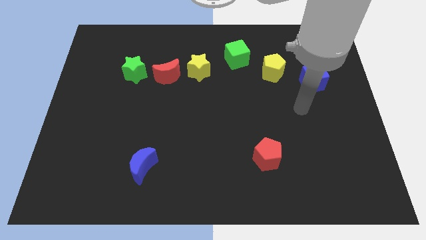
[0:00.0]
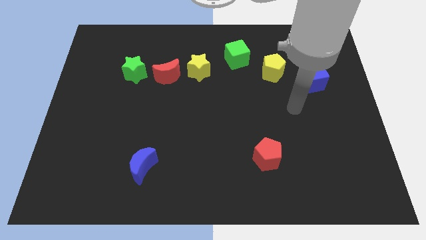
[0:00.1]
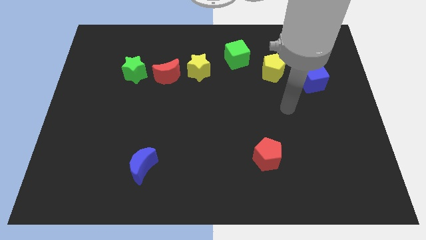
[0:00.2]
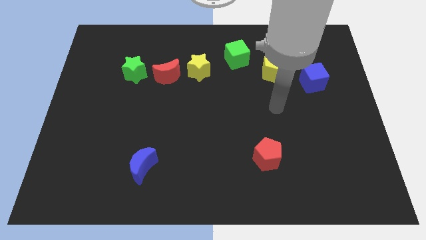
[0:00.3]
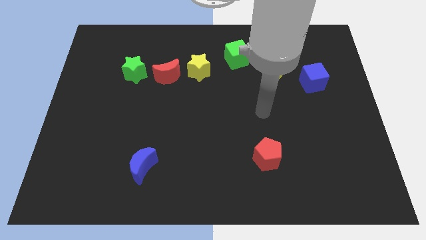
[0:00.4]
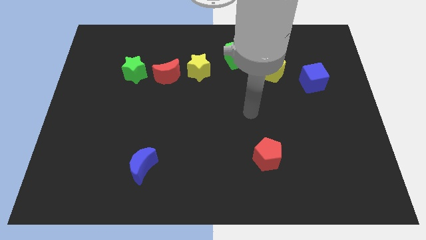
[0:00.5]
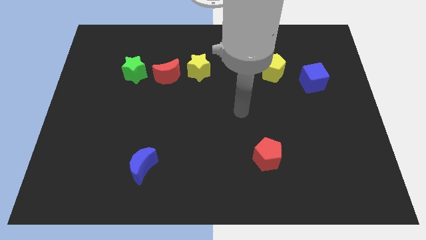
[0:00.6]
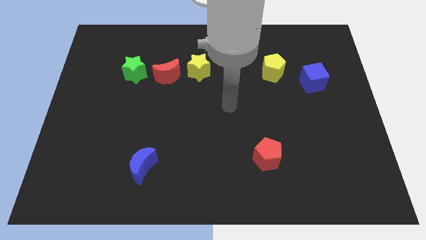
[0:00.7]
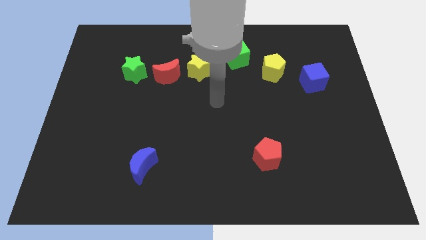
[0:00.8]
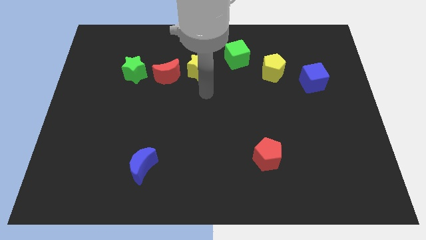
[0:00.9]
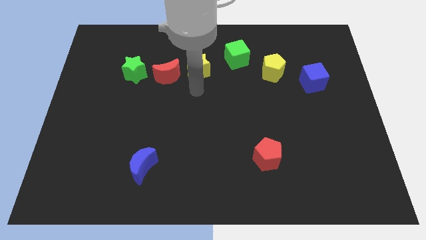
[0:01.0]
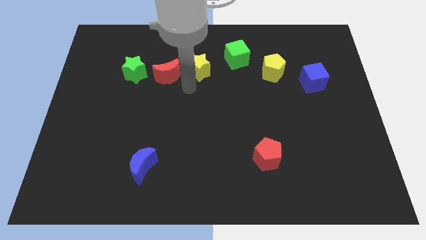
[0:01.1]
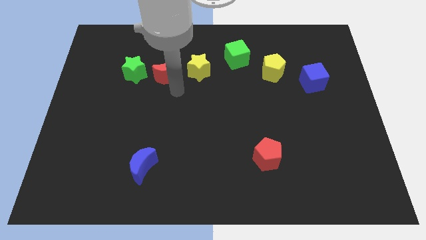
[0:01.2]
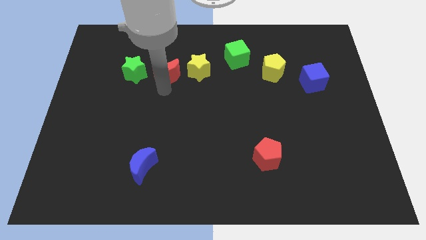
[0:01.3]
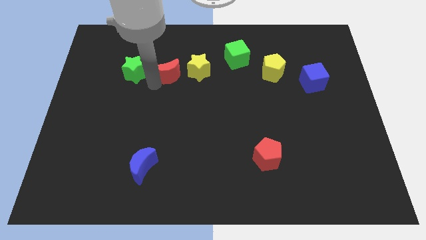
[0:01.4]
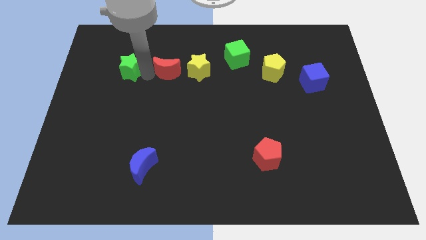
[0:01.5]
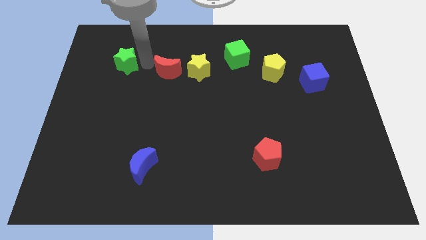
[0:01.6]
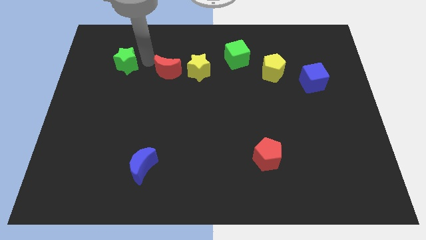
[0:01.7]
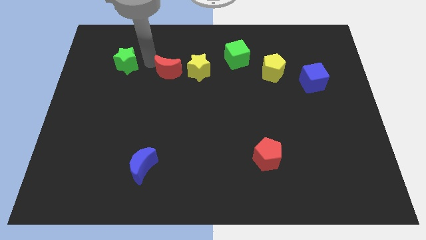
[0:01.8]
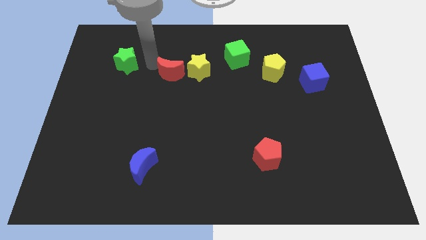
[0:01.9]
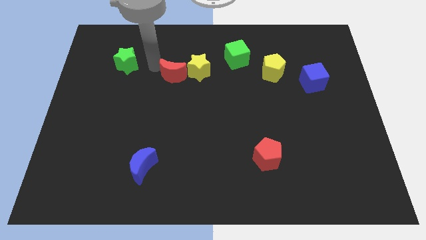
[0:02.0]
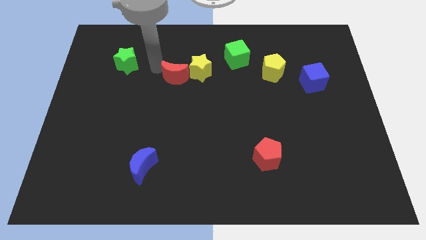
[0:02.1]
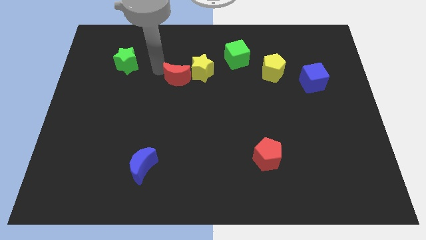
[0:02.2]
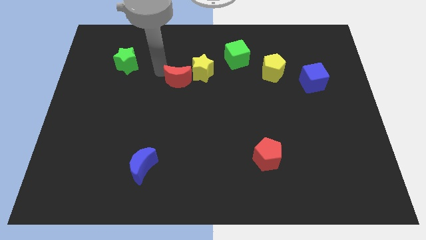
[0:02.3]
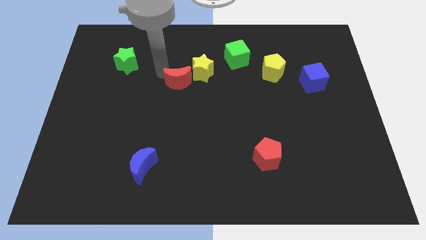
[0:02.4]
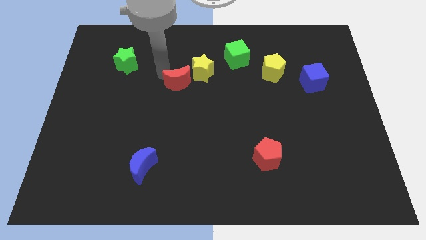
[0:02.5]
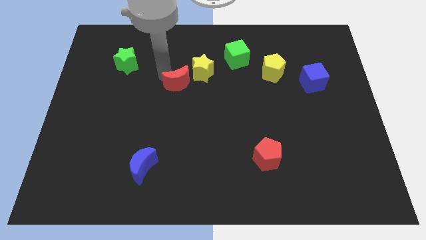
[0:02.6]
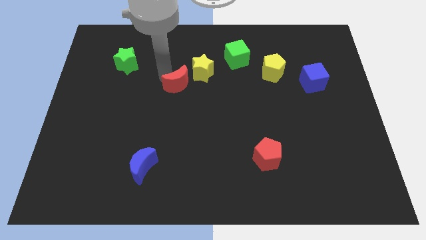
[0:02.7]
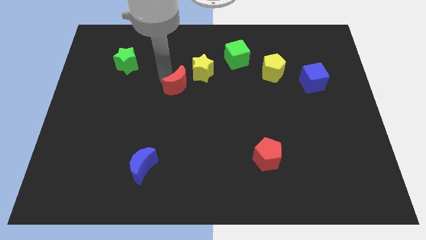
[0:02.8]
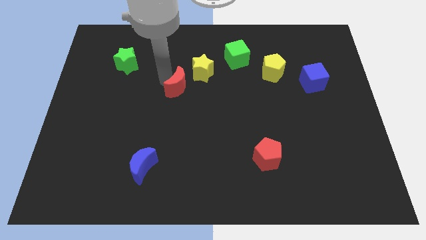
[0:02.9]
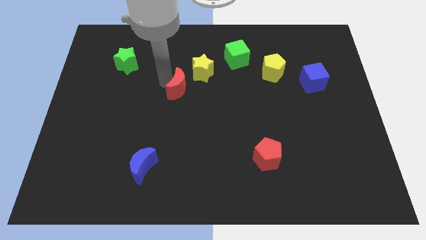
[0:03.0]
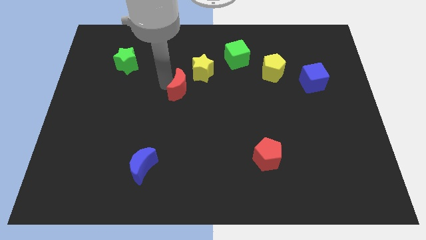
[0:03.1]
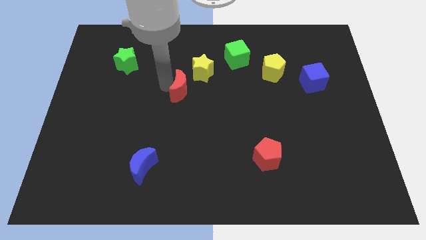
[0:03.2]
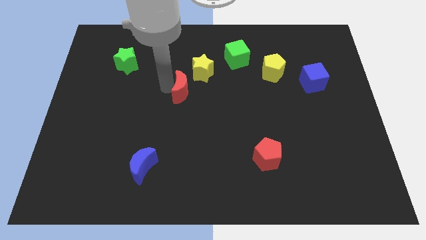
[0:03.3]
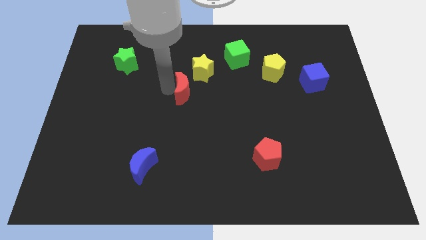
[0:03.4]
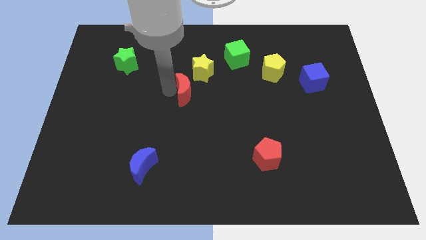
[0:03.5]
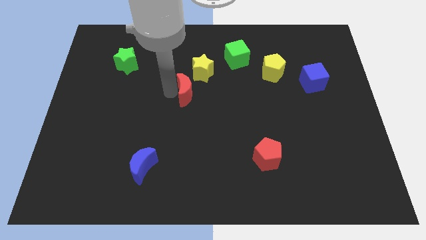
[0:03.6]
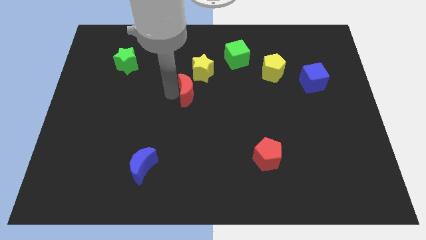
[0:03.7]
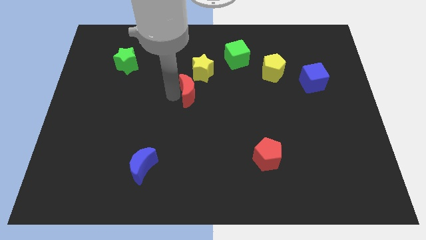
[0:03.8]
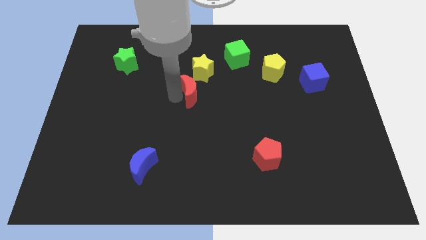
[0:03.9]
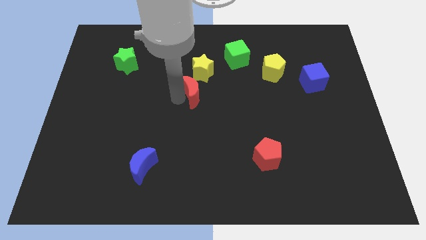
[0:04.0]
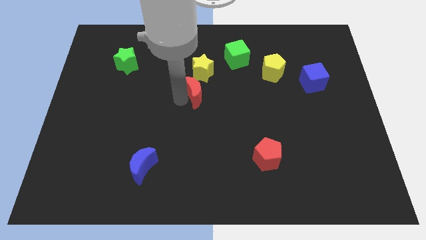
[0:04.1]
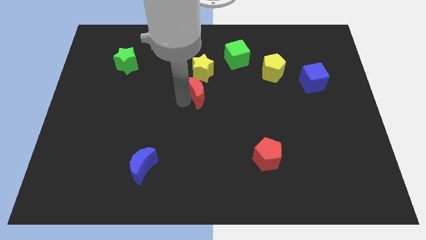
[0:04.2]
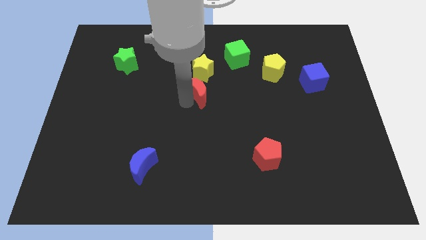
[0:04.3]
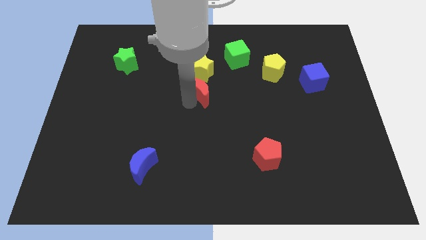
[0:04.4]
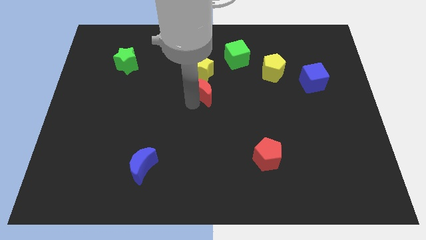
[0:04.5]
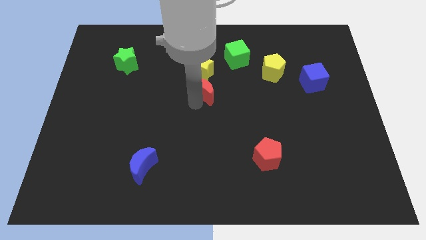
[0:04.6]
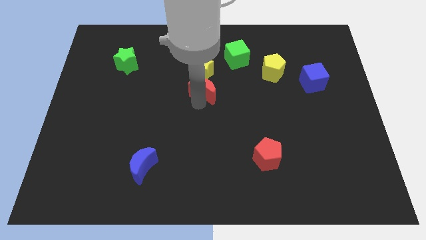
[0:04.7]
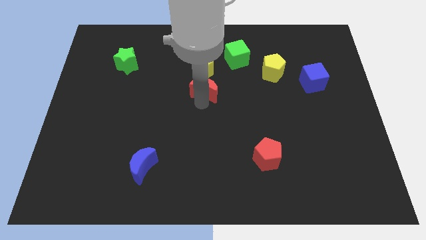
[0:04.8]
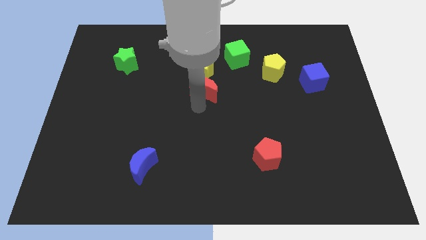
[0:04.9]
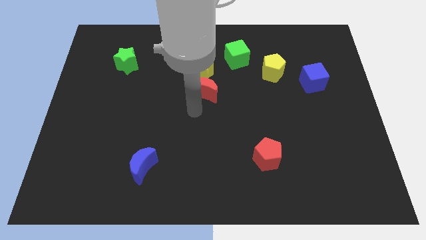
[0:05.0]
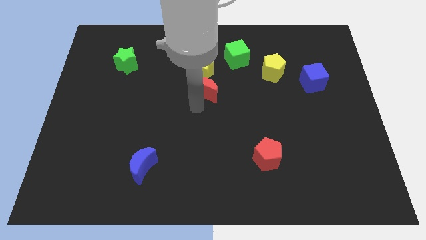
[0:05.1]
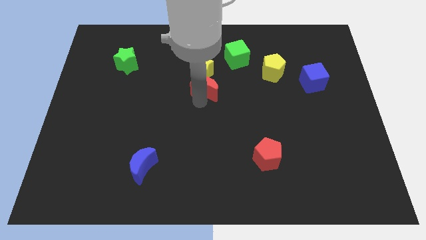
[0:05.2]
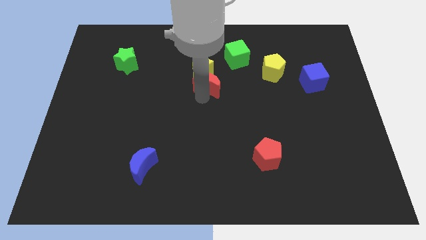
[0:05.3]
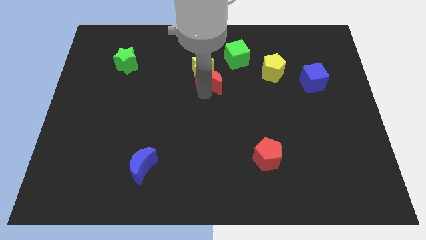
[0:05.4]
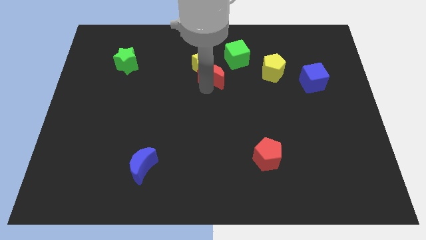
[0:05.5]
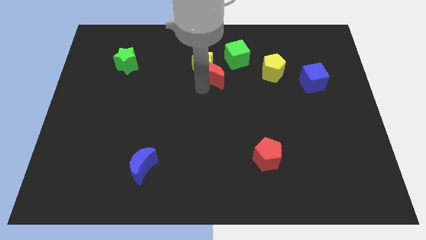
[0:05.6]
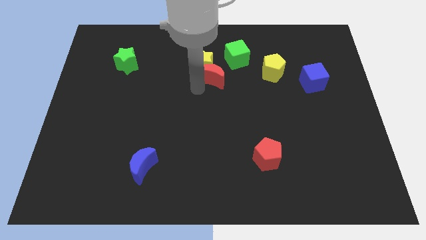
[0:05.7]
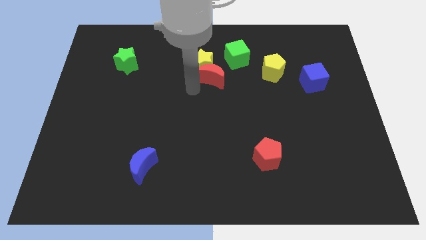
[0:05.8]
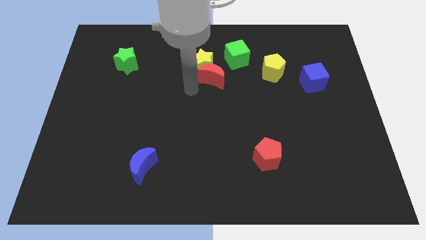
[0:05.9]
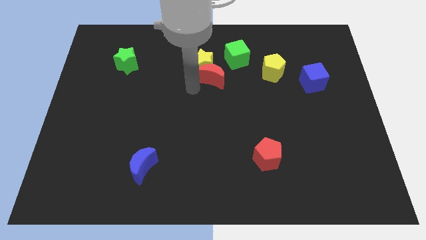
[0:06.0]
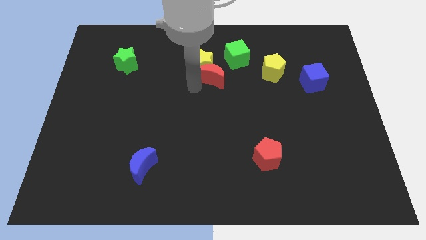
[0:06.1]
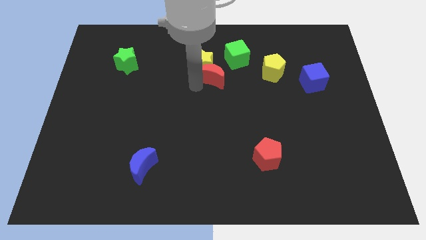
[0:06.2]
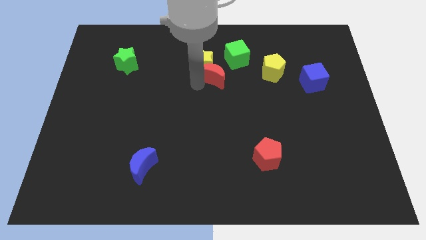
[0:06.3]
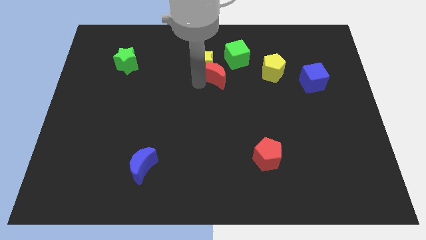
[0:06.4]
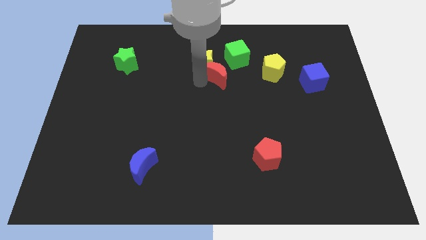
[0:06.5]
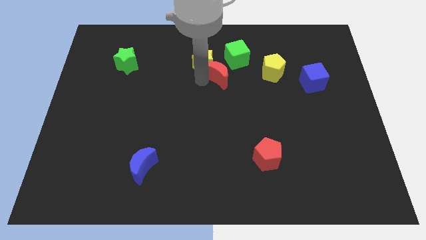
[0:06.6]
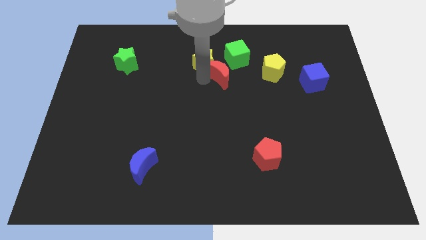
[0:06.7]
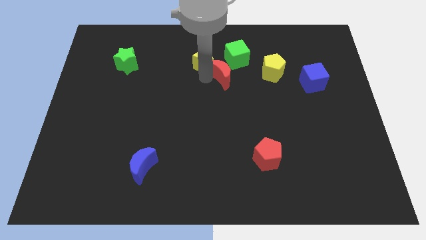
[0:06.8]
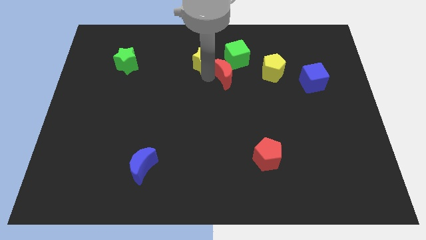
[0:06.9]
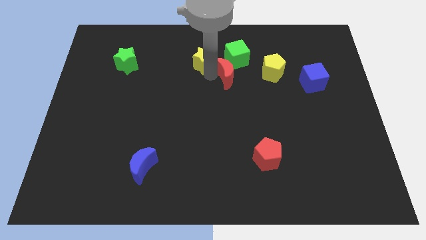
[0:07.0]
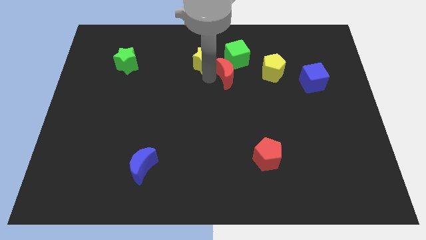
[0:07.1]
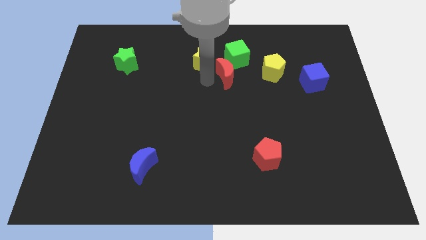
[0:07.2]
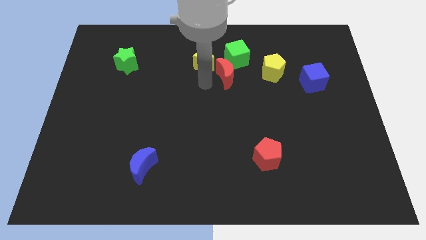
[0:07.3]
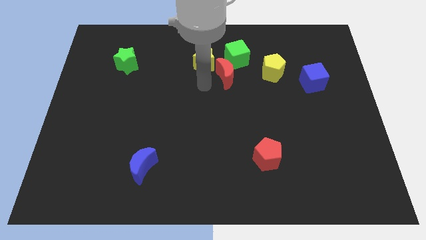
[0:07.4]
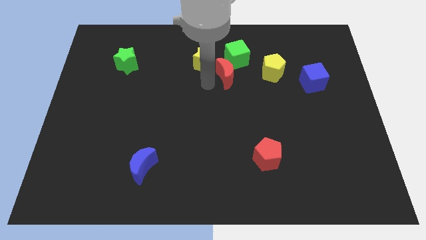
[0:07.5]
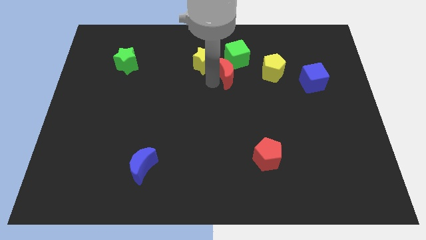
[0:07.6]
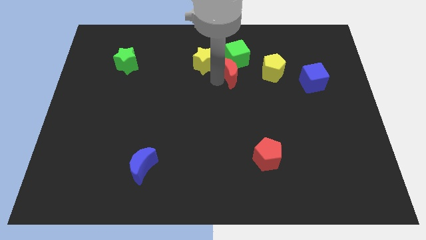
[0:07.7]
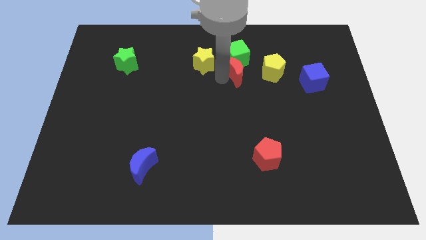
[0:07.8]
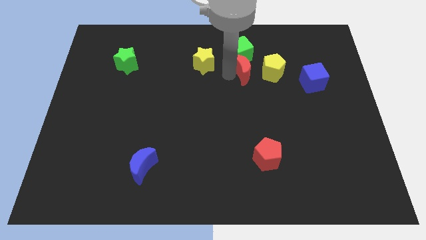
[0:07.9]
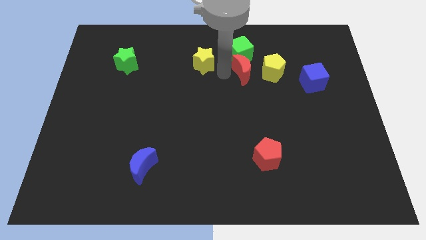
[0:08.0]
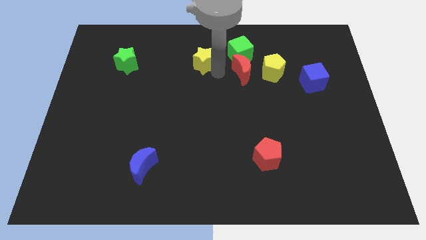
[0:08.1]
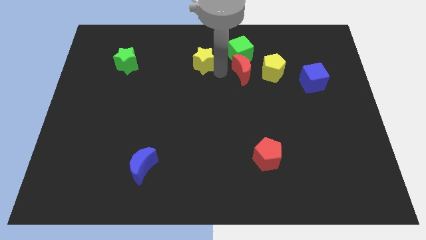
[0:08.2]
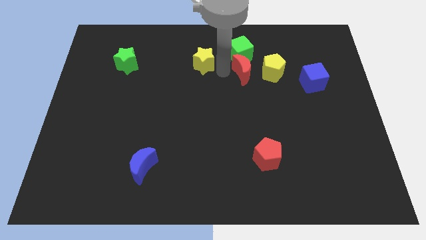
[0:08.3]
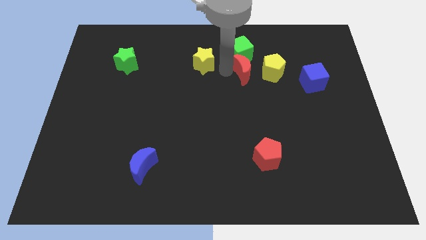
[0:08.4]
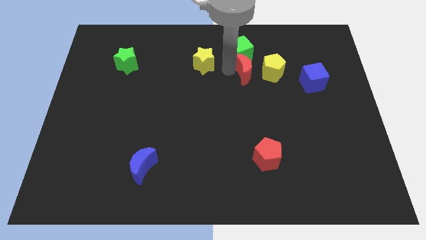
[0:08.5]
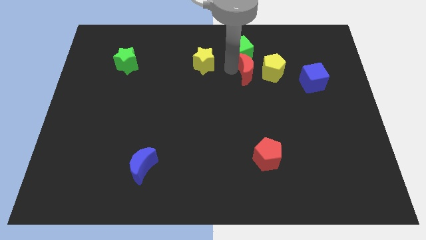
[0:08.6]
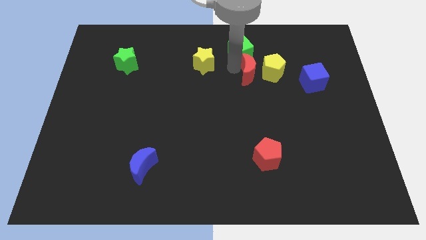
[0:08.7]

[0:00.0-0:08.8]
push the red moon to the yellow pentagon
